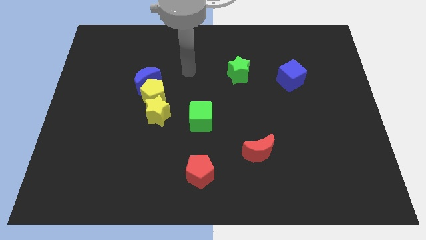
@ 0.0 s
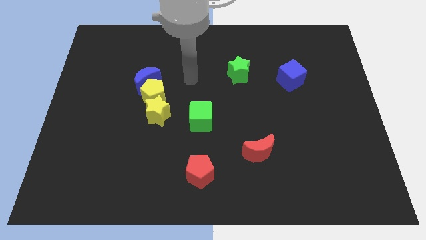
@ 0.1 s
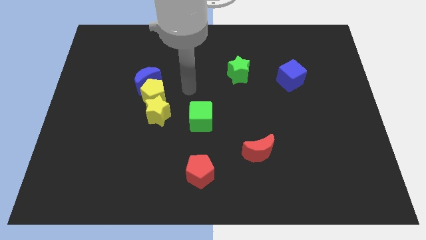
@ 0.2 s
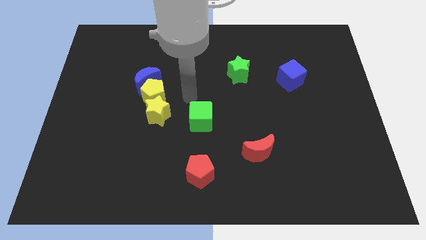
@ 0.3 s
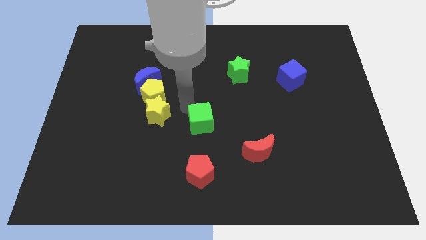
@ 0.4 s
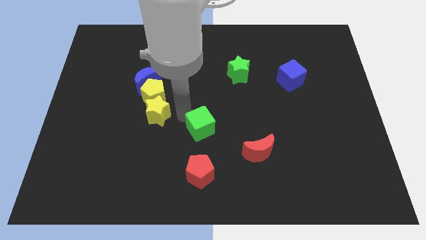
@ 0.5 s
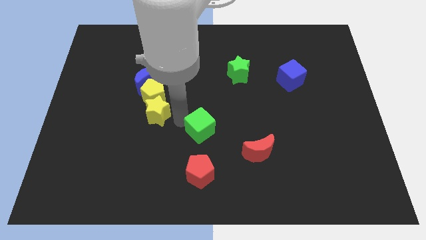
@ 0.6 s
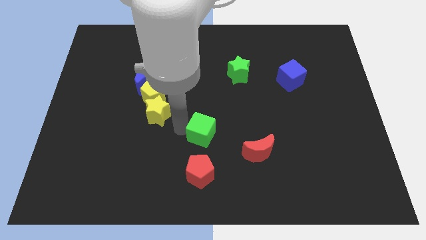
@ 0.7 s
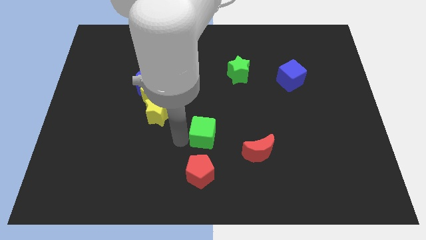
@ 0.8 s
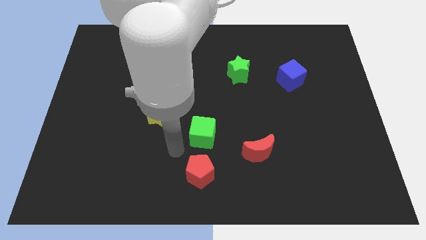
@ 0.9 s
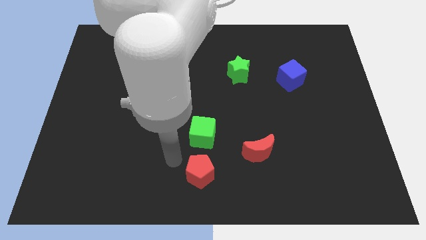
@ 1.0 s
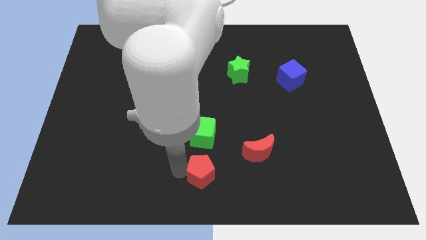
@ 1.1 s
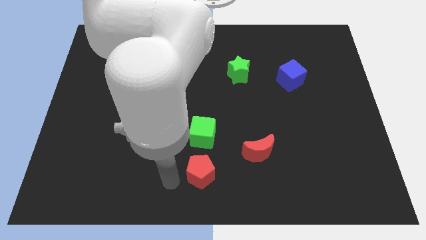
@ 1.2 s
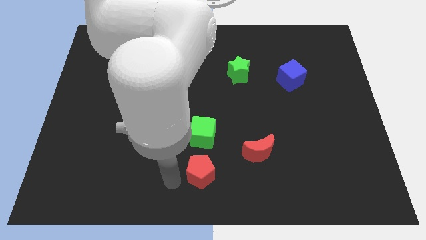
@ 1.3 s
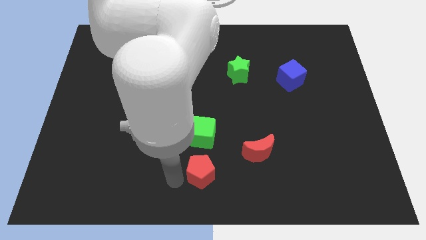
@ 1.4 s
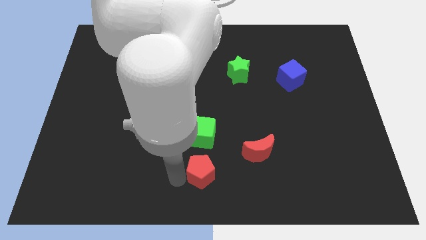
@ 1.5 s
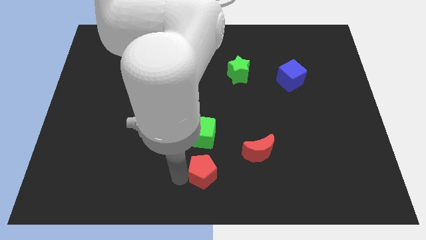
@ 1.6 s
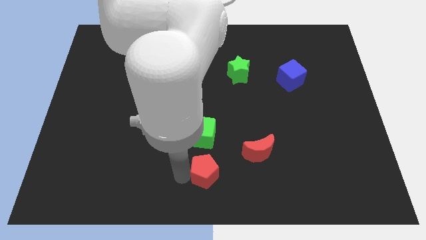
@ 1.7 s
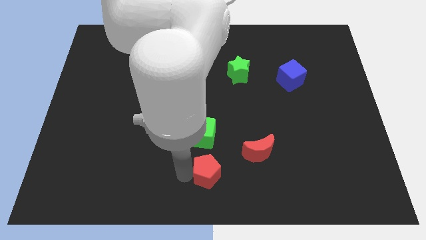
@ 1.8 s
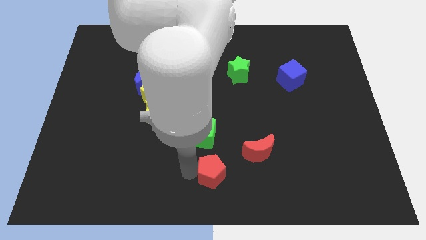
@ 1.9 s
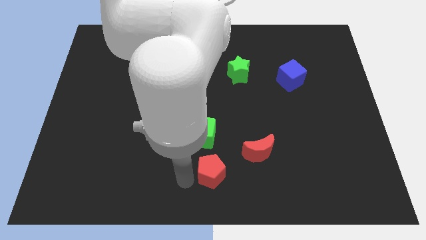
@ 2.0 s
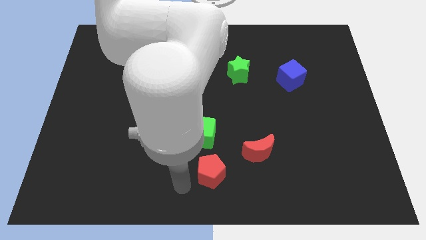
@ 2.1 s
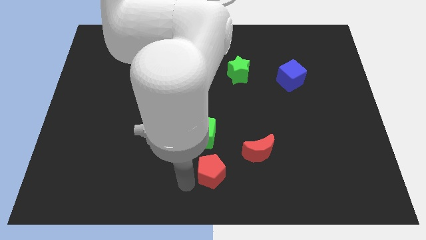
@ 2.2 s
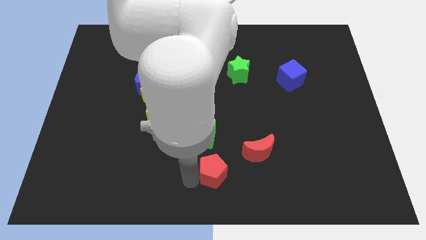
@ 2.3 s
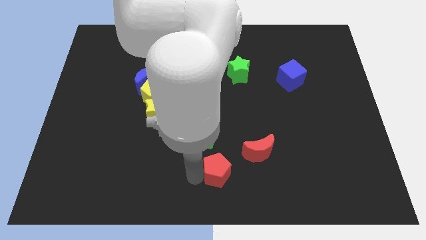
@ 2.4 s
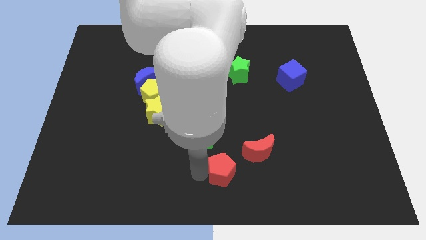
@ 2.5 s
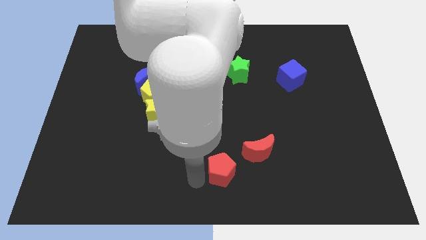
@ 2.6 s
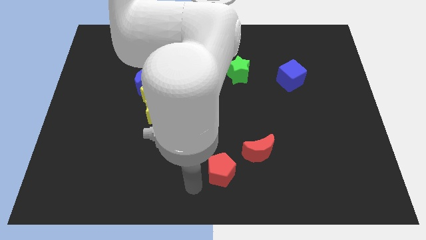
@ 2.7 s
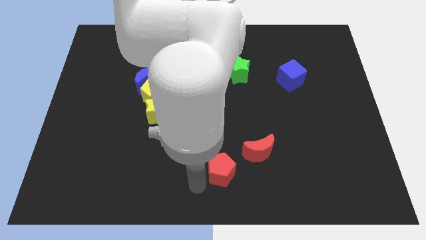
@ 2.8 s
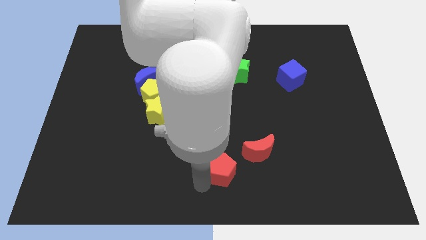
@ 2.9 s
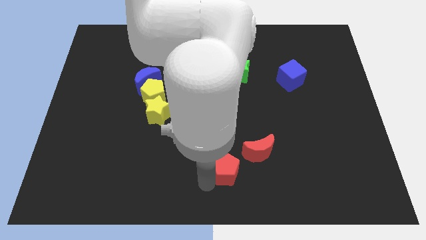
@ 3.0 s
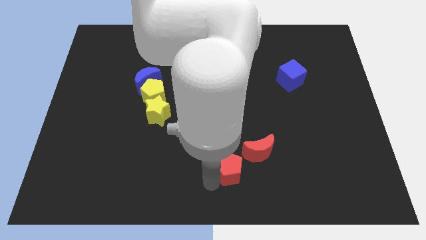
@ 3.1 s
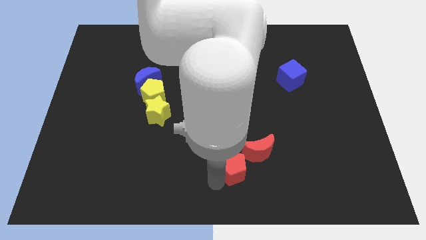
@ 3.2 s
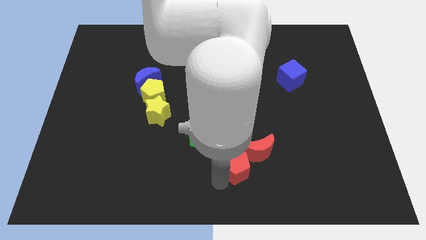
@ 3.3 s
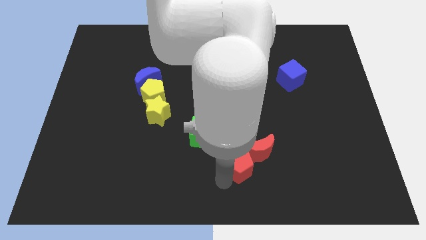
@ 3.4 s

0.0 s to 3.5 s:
push the red pentagon towards the red moon

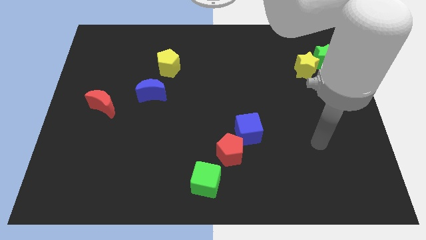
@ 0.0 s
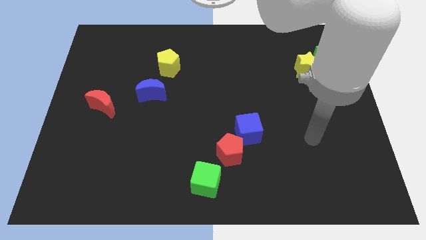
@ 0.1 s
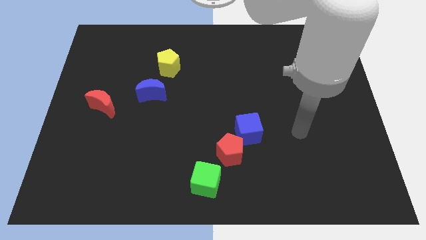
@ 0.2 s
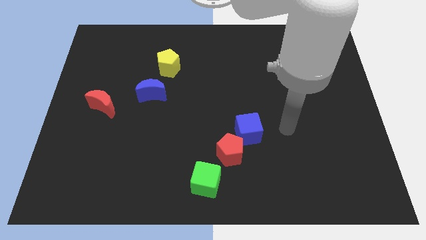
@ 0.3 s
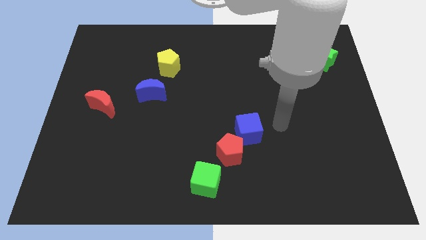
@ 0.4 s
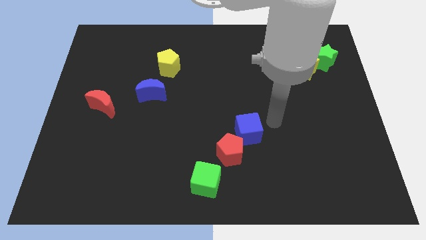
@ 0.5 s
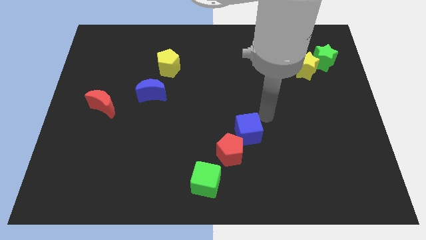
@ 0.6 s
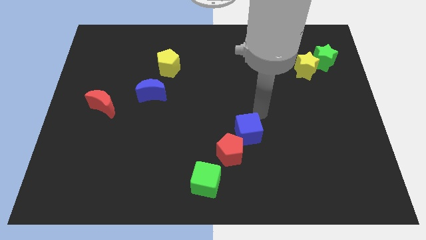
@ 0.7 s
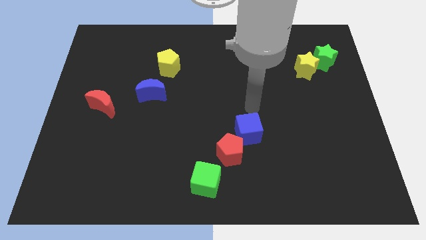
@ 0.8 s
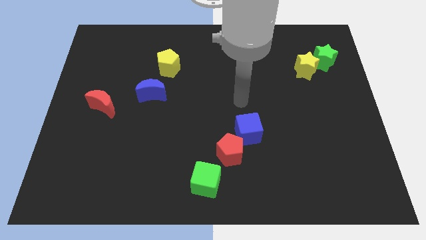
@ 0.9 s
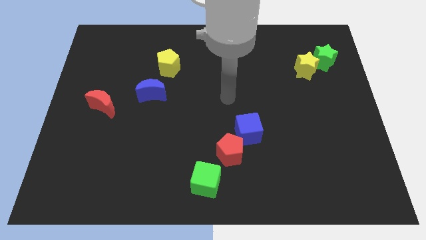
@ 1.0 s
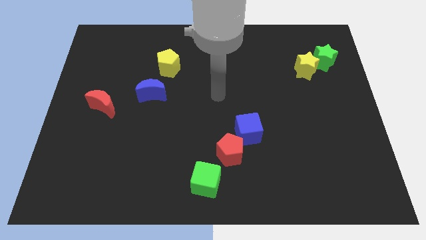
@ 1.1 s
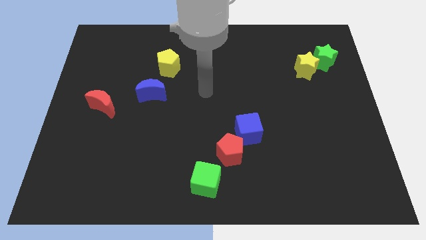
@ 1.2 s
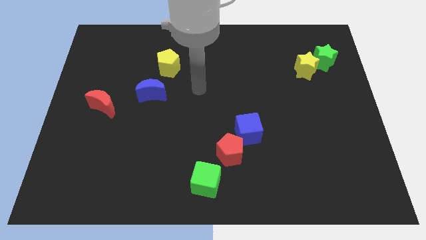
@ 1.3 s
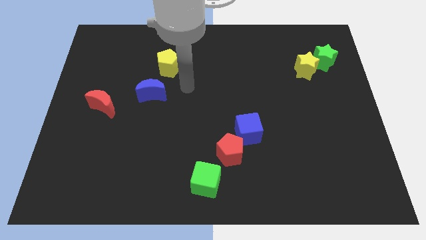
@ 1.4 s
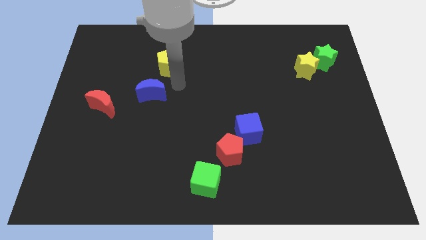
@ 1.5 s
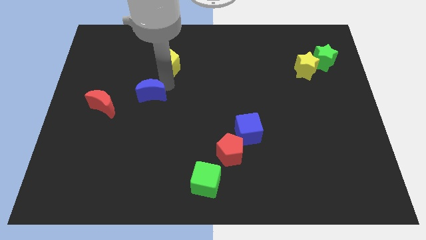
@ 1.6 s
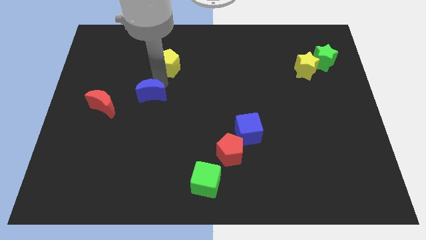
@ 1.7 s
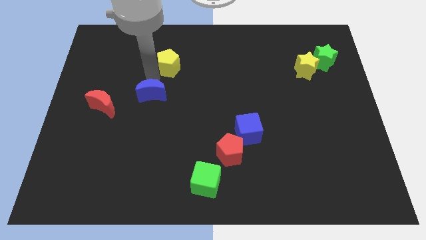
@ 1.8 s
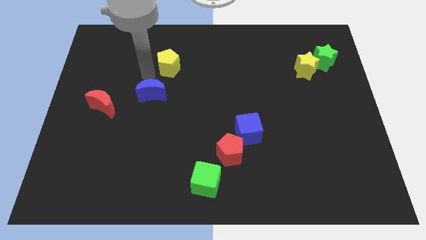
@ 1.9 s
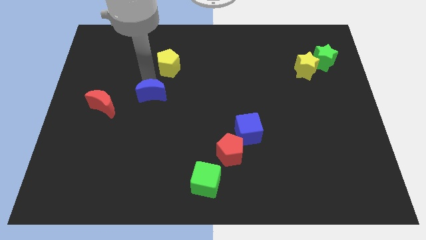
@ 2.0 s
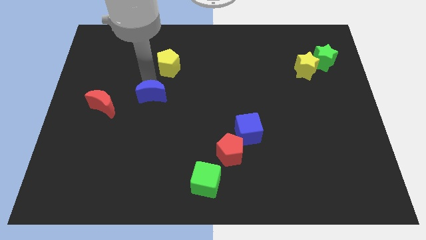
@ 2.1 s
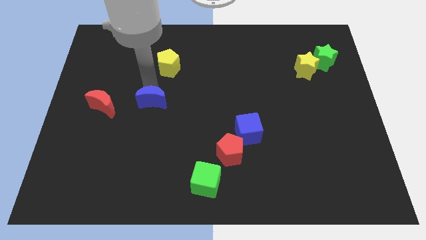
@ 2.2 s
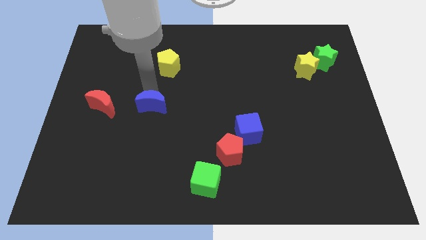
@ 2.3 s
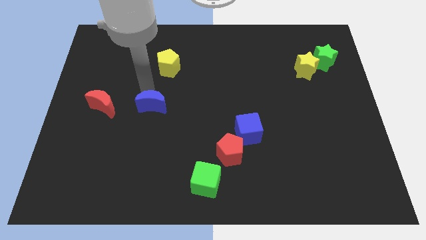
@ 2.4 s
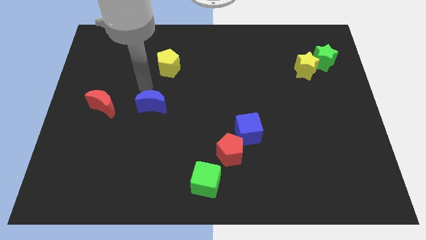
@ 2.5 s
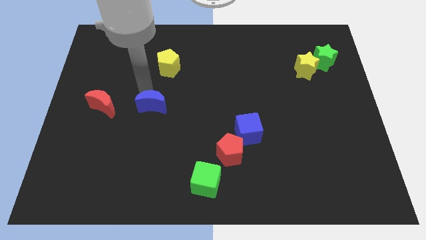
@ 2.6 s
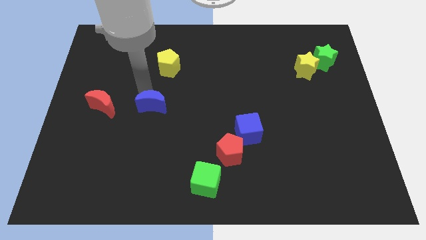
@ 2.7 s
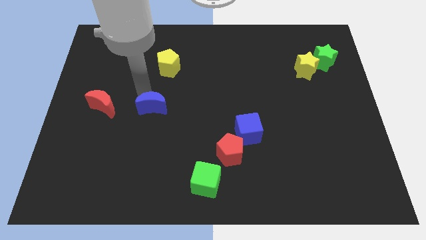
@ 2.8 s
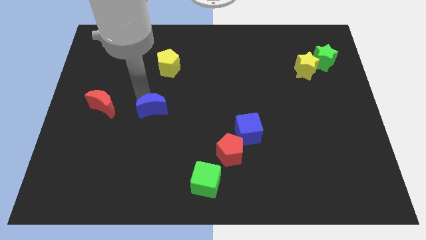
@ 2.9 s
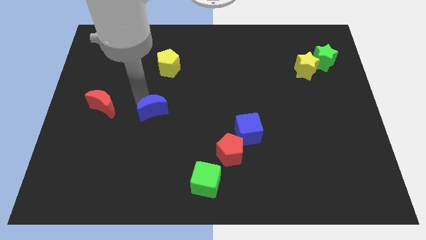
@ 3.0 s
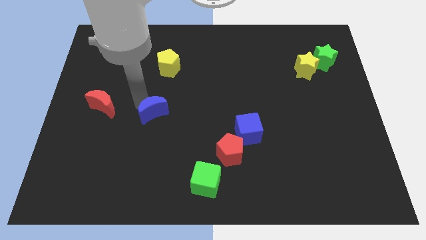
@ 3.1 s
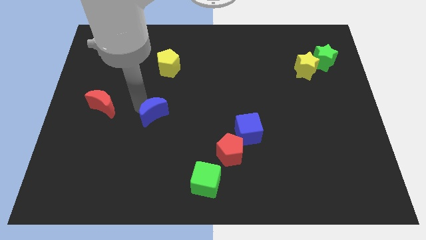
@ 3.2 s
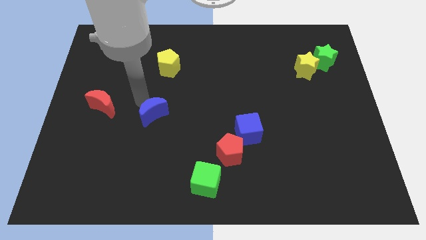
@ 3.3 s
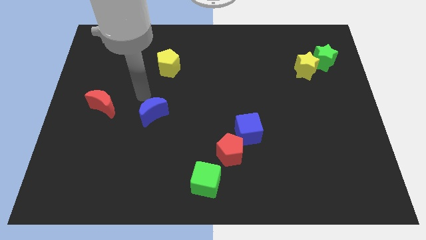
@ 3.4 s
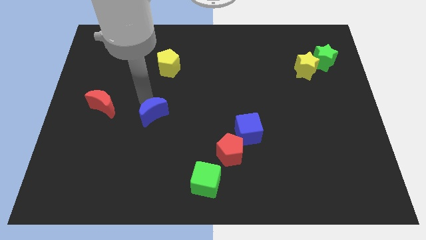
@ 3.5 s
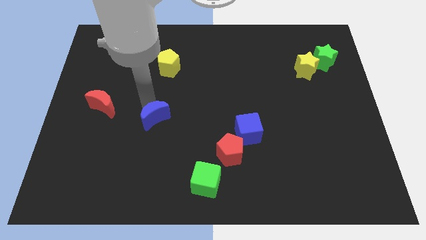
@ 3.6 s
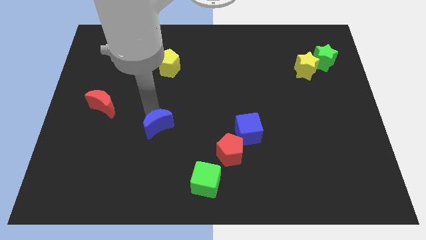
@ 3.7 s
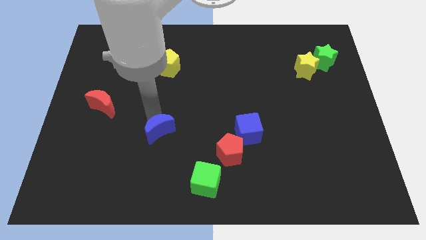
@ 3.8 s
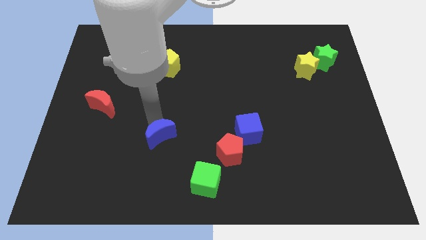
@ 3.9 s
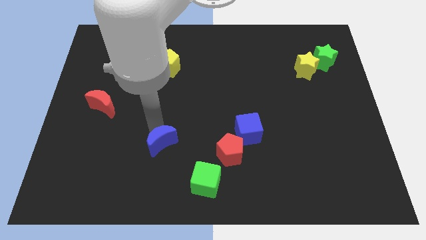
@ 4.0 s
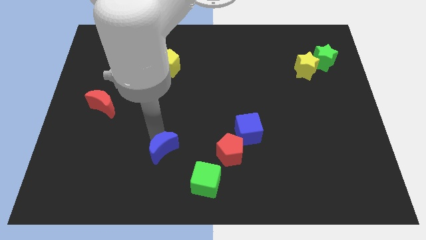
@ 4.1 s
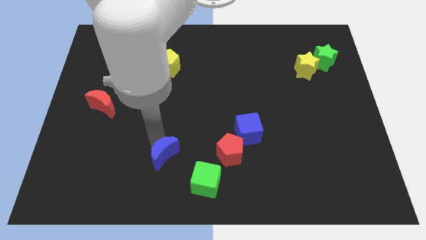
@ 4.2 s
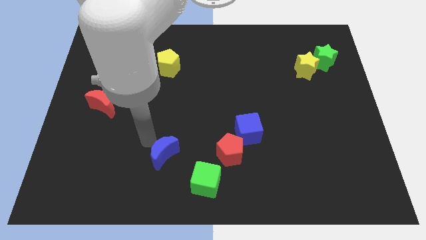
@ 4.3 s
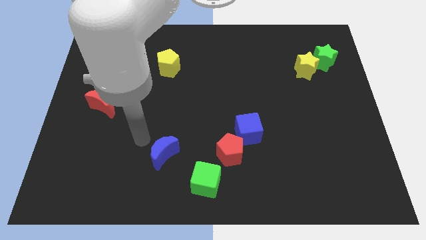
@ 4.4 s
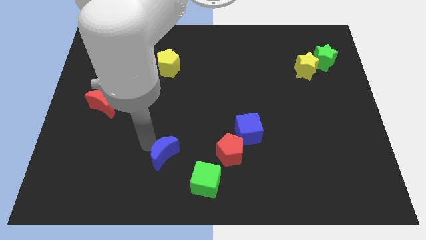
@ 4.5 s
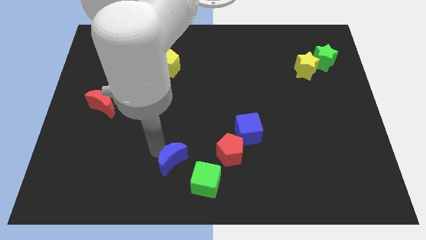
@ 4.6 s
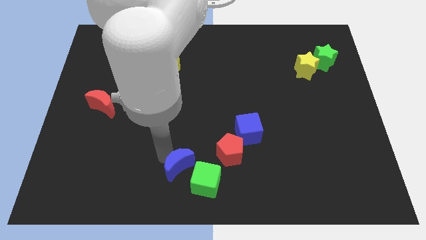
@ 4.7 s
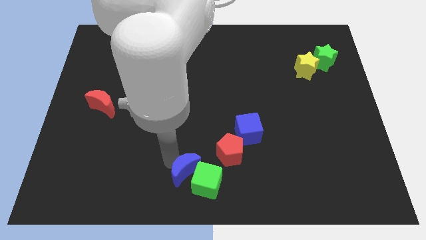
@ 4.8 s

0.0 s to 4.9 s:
slide the blue moon next to the green cube
